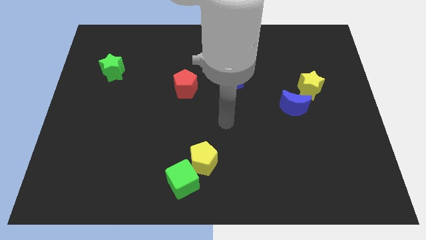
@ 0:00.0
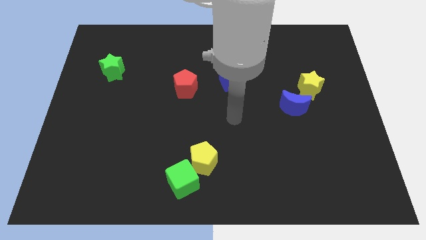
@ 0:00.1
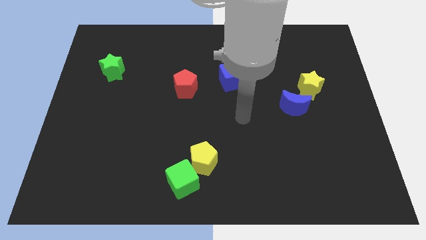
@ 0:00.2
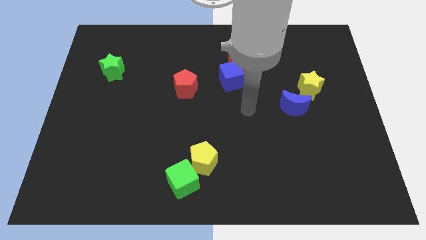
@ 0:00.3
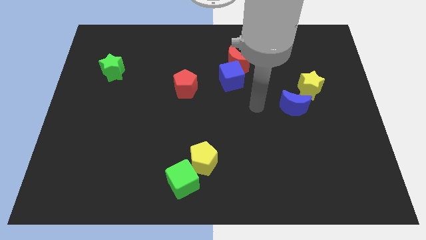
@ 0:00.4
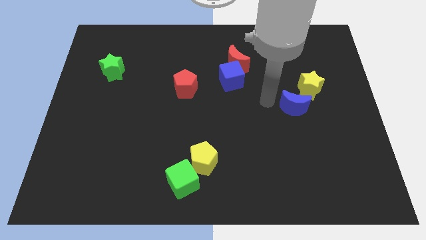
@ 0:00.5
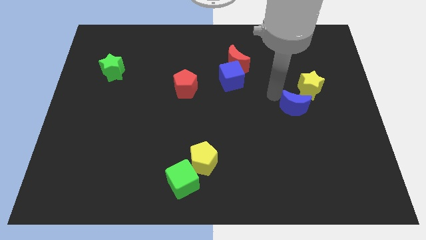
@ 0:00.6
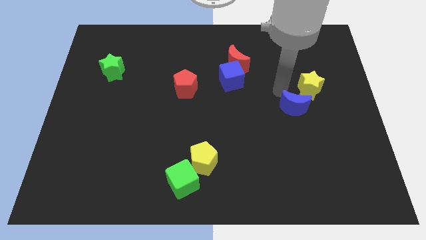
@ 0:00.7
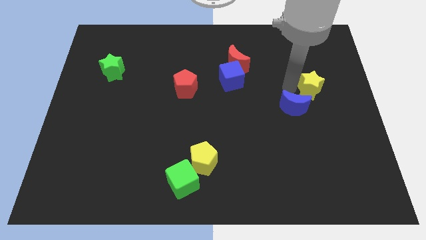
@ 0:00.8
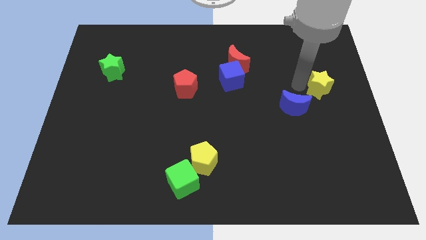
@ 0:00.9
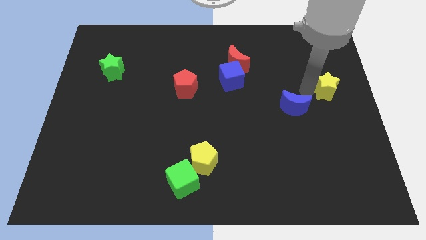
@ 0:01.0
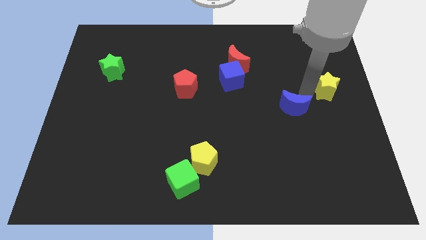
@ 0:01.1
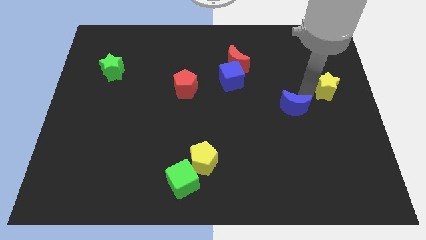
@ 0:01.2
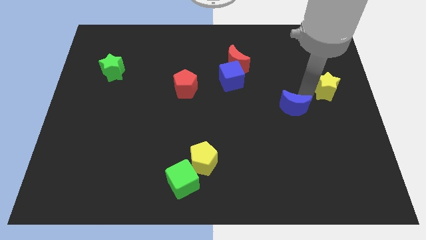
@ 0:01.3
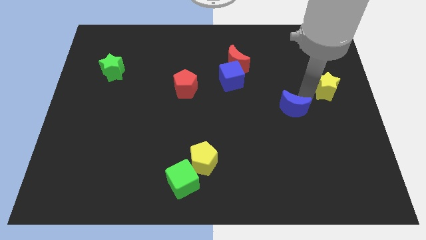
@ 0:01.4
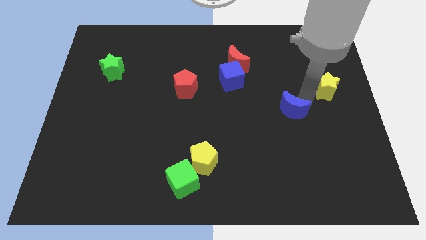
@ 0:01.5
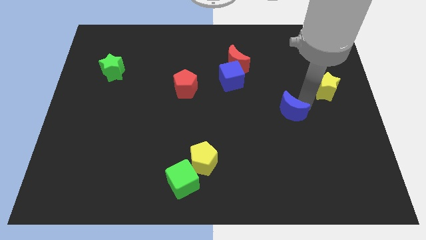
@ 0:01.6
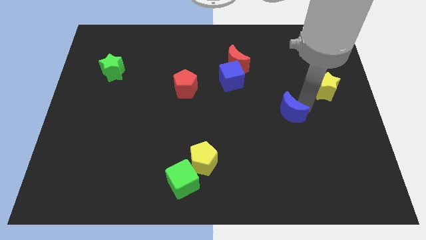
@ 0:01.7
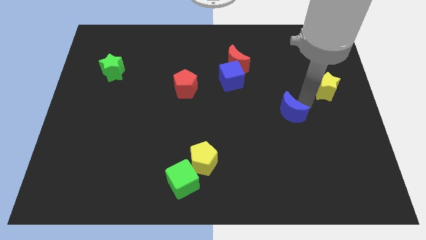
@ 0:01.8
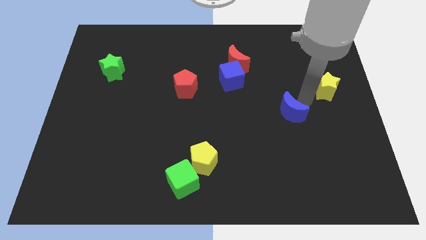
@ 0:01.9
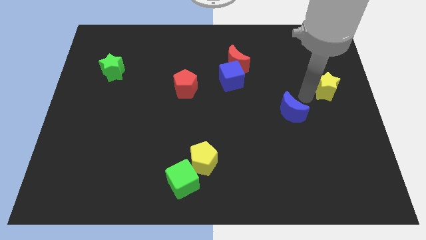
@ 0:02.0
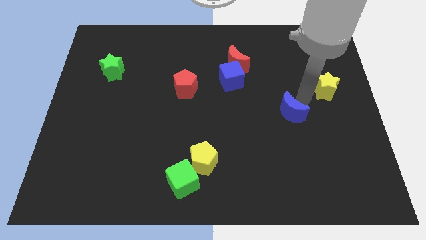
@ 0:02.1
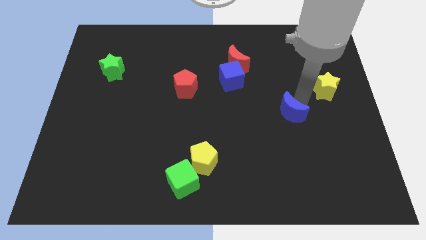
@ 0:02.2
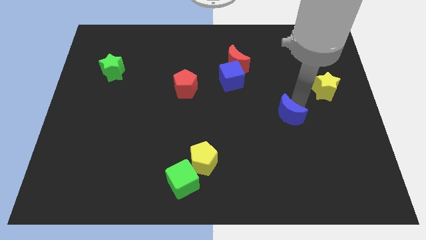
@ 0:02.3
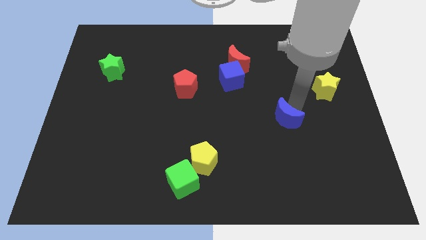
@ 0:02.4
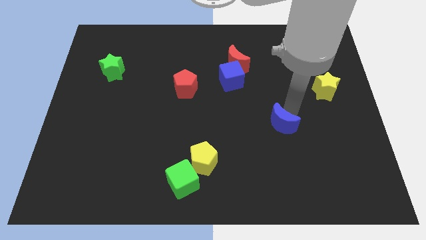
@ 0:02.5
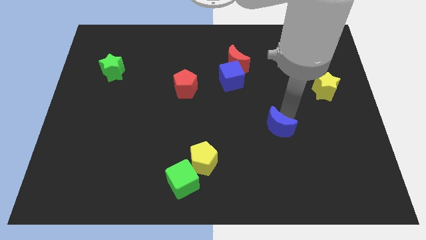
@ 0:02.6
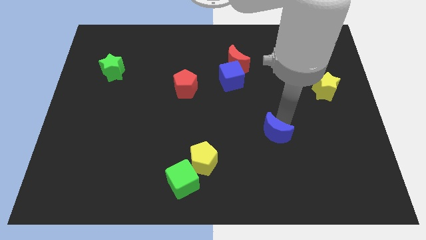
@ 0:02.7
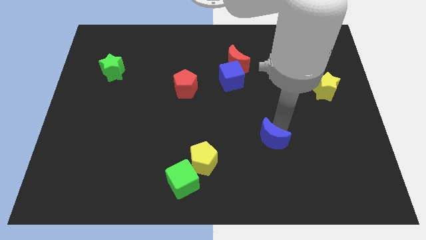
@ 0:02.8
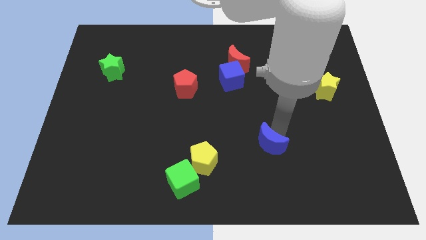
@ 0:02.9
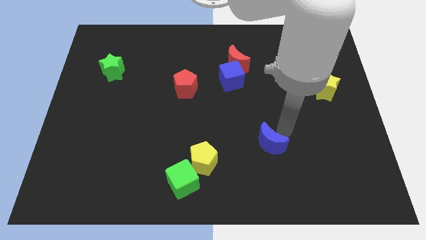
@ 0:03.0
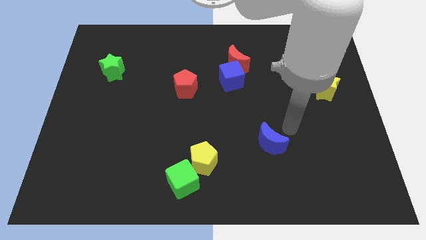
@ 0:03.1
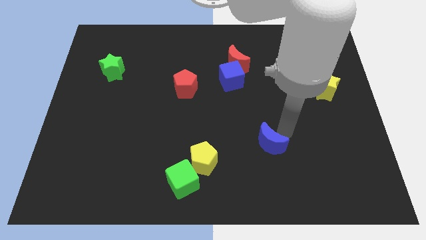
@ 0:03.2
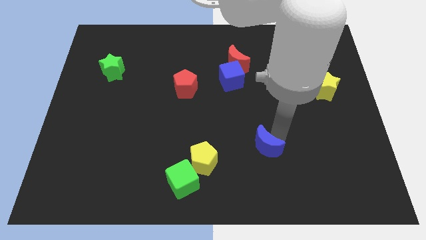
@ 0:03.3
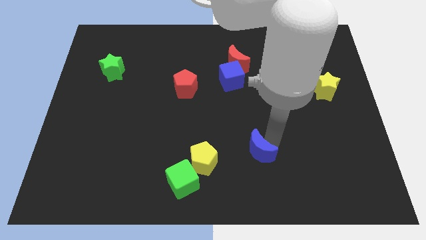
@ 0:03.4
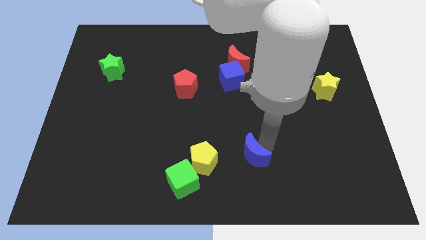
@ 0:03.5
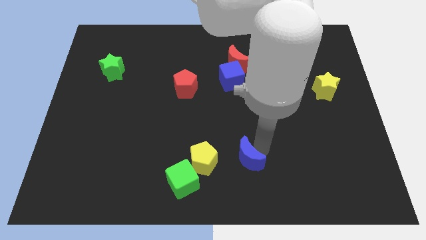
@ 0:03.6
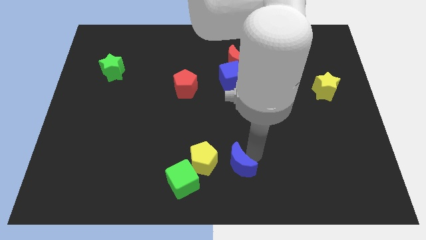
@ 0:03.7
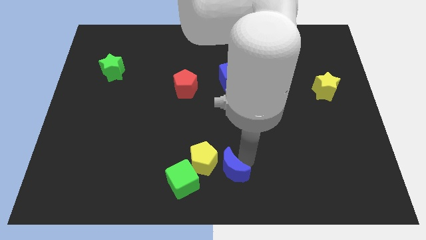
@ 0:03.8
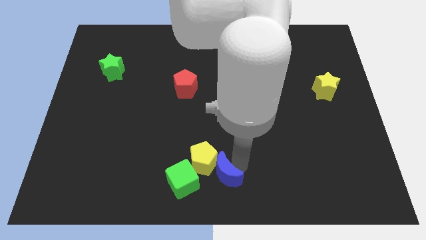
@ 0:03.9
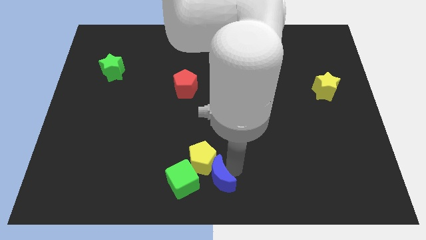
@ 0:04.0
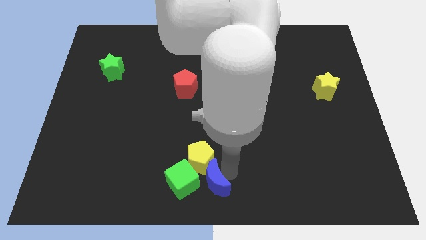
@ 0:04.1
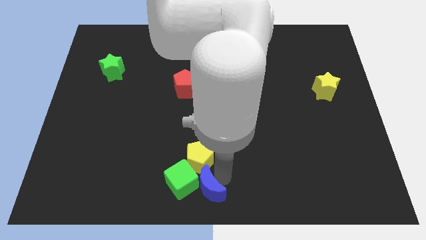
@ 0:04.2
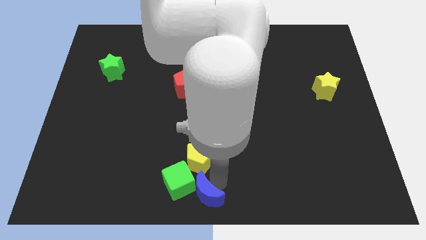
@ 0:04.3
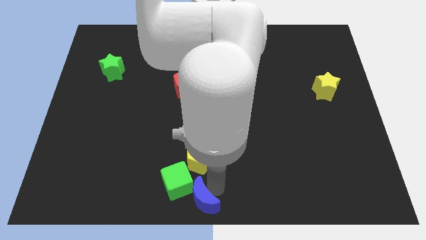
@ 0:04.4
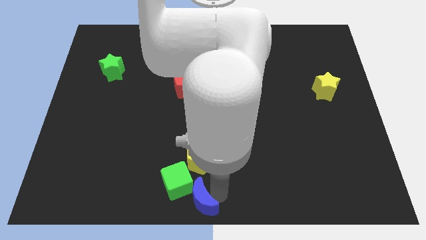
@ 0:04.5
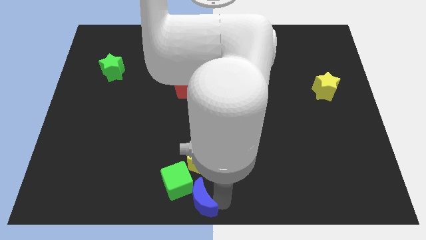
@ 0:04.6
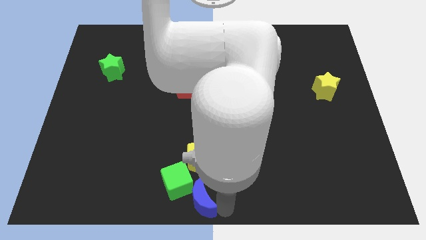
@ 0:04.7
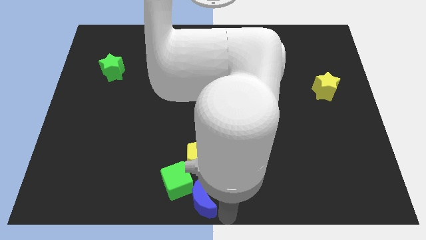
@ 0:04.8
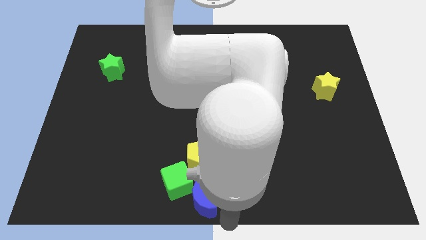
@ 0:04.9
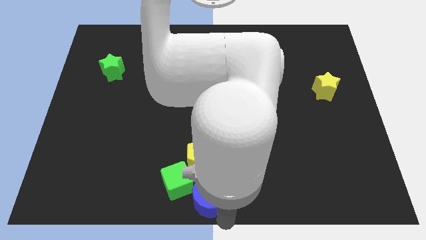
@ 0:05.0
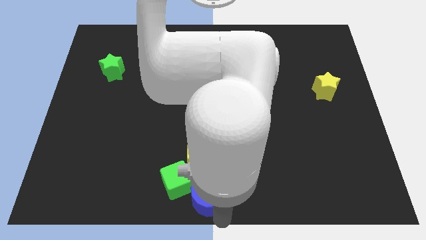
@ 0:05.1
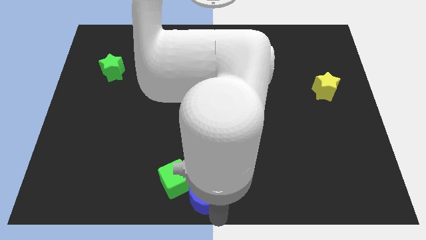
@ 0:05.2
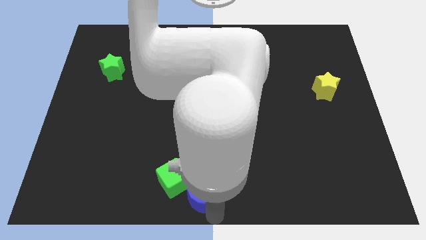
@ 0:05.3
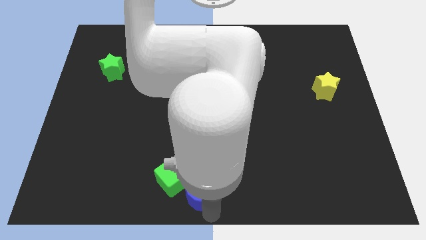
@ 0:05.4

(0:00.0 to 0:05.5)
put the blue moon to the bottom left of the yellow pentagon

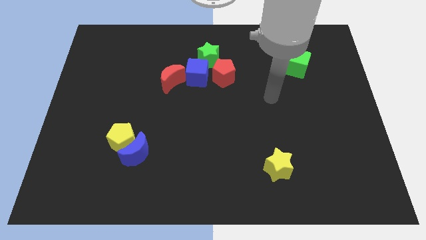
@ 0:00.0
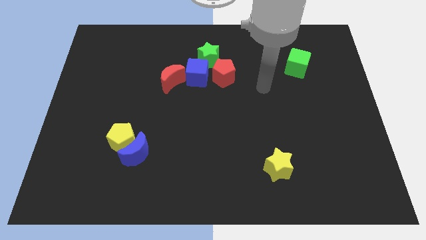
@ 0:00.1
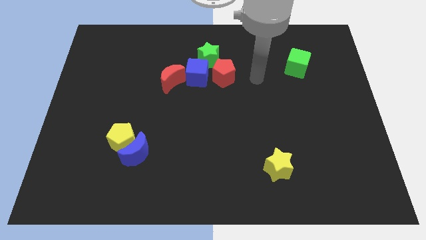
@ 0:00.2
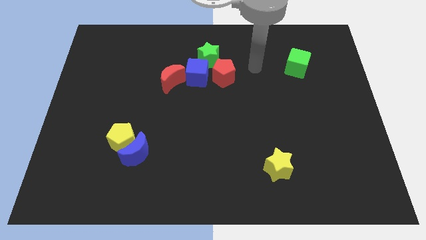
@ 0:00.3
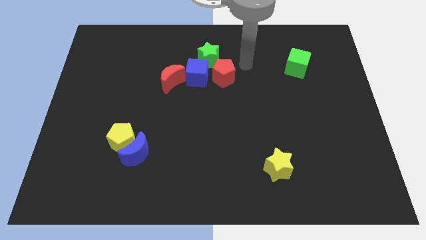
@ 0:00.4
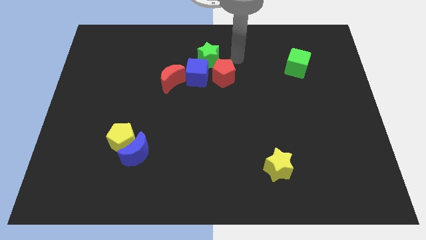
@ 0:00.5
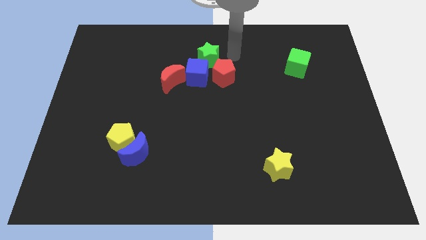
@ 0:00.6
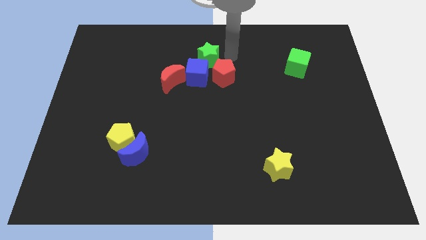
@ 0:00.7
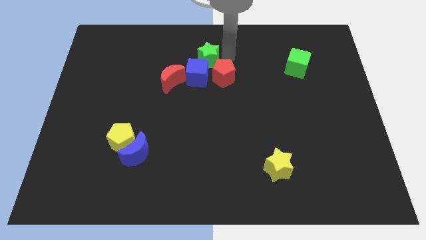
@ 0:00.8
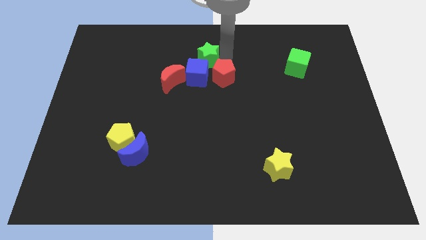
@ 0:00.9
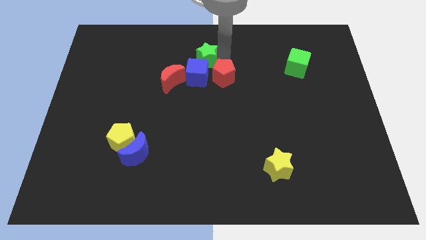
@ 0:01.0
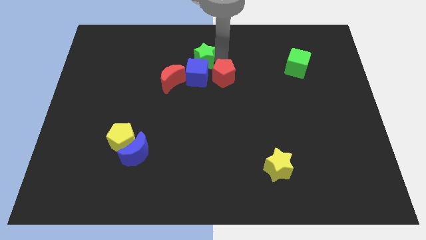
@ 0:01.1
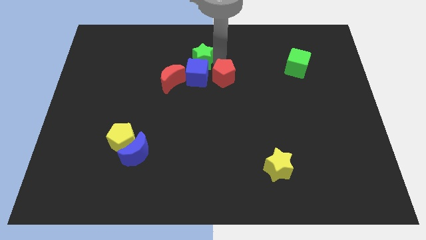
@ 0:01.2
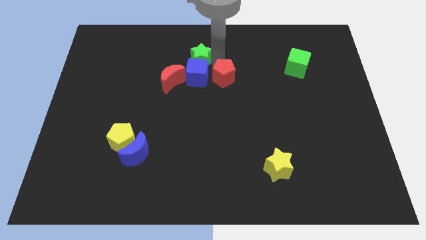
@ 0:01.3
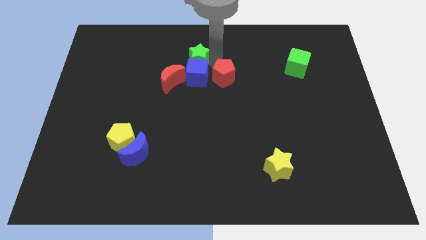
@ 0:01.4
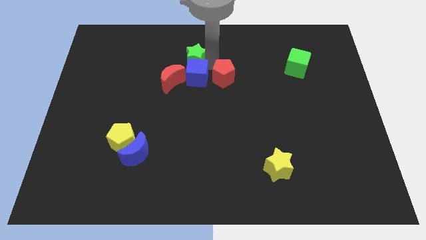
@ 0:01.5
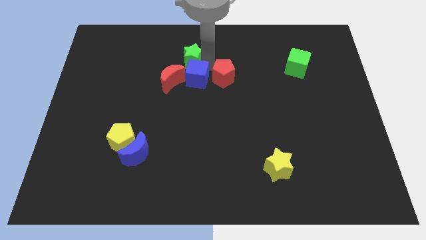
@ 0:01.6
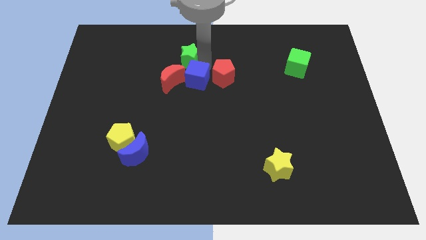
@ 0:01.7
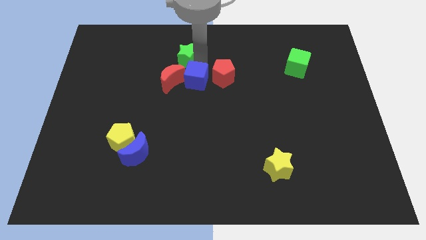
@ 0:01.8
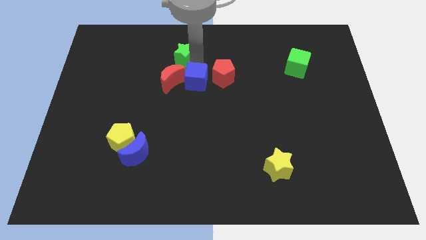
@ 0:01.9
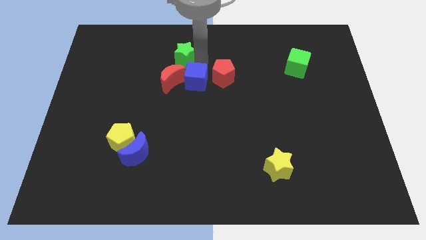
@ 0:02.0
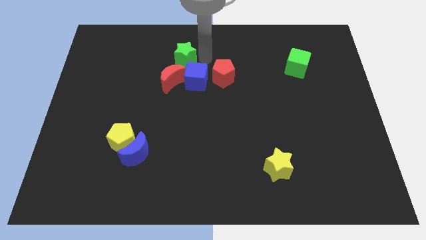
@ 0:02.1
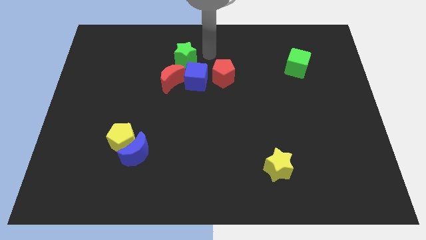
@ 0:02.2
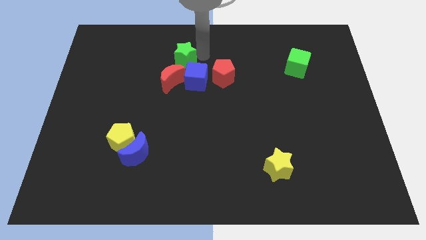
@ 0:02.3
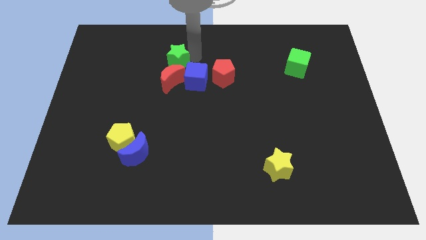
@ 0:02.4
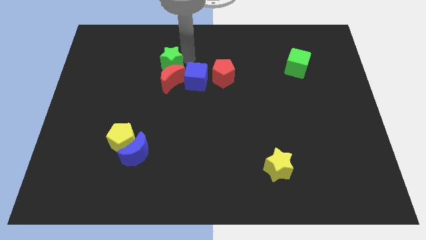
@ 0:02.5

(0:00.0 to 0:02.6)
slide the green star to the top left side of the red moon
